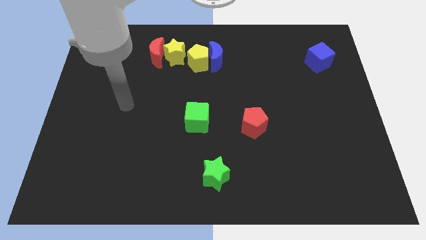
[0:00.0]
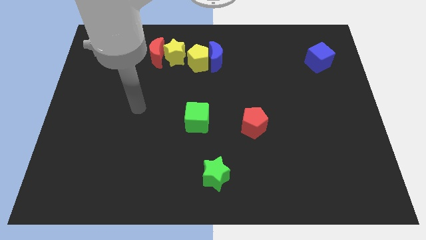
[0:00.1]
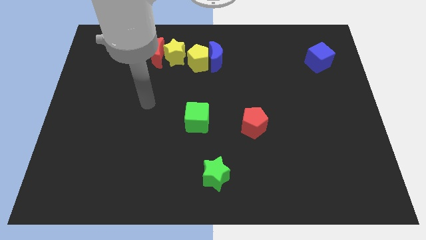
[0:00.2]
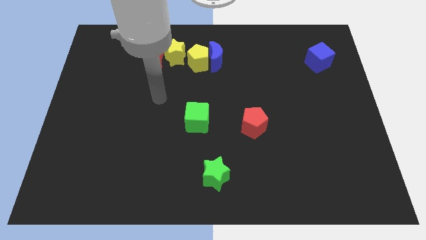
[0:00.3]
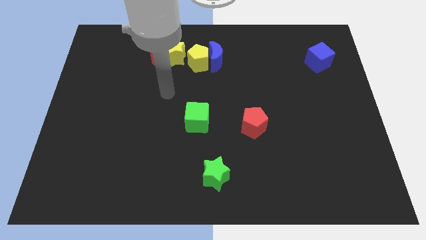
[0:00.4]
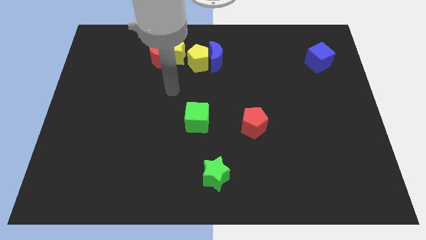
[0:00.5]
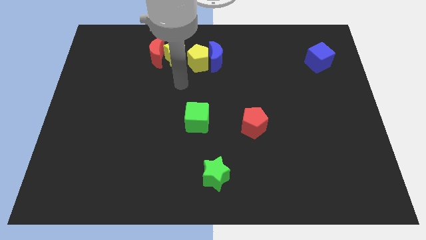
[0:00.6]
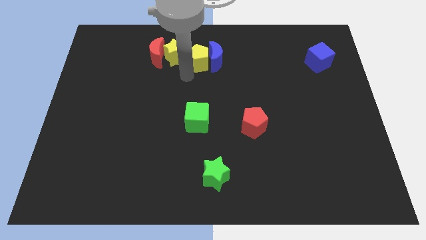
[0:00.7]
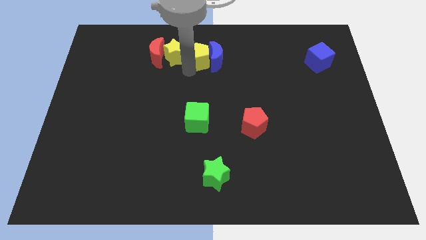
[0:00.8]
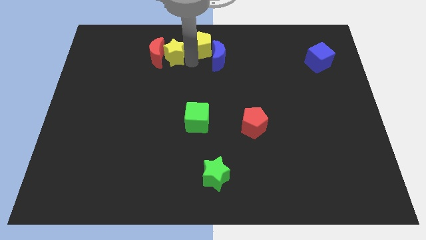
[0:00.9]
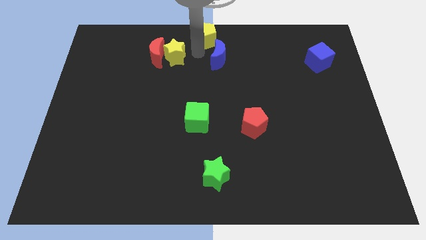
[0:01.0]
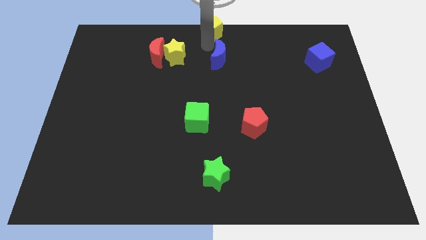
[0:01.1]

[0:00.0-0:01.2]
pull the blue moon apart from the yellow pentagon

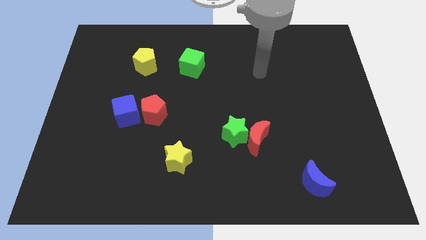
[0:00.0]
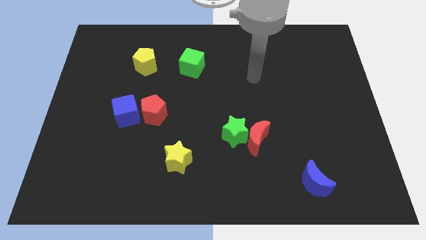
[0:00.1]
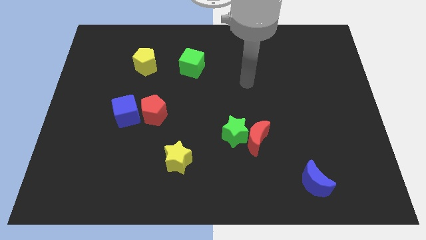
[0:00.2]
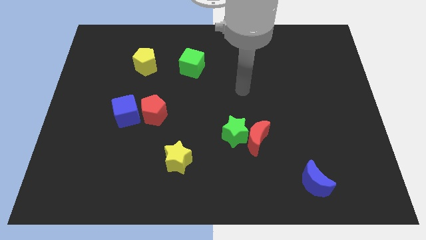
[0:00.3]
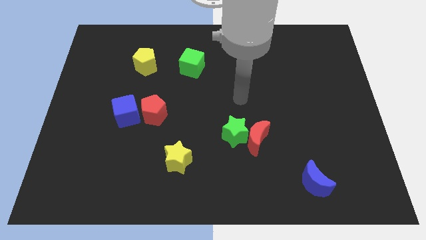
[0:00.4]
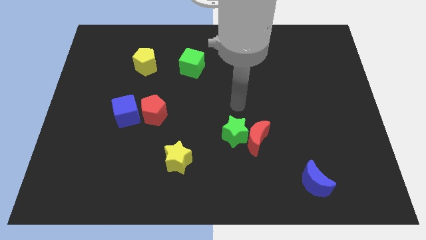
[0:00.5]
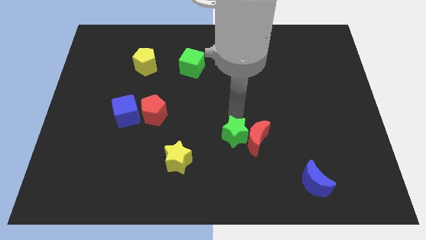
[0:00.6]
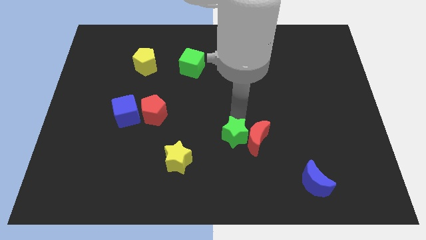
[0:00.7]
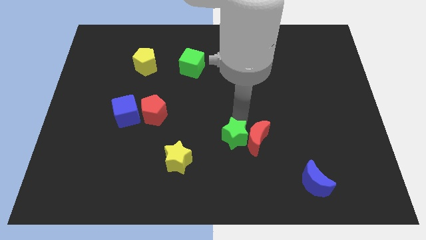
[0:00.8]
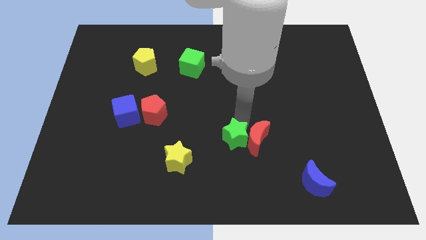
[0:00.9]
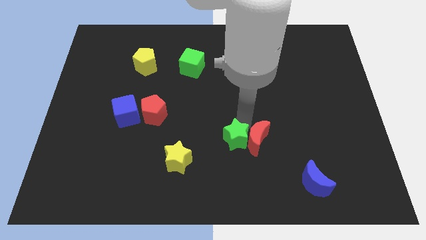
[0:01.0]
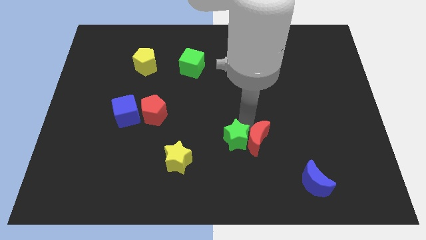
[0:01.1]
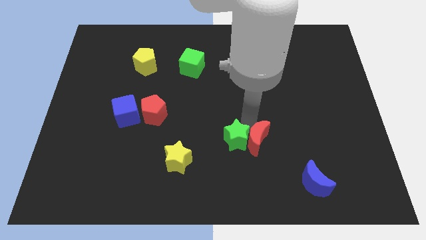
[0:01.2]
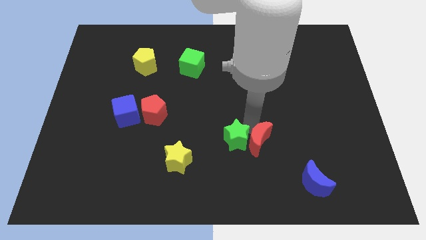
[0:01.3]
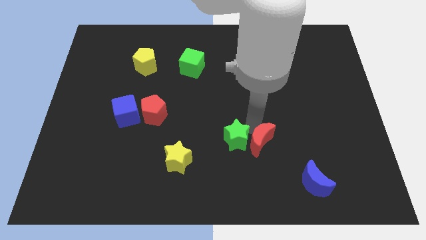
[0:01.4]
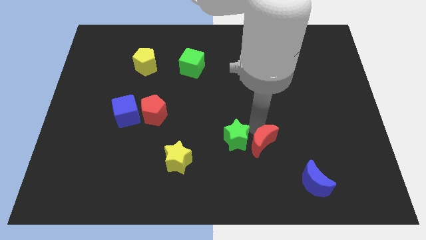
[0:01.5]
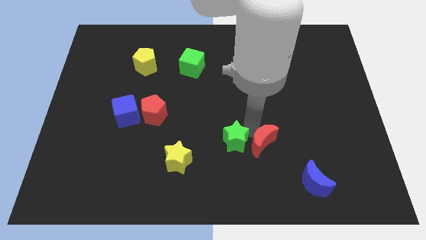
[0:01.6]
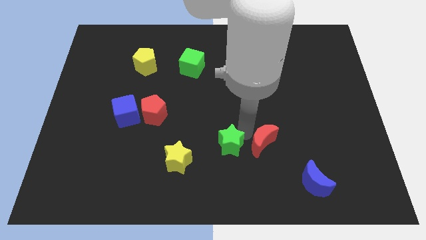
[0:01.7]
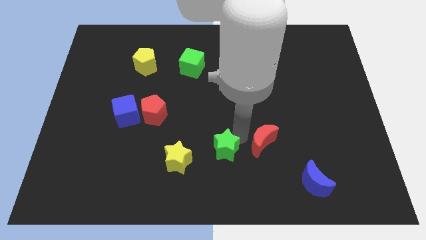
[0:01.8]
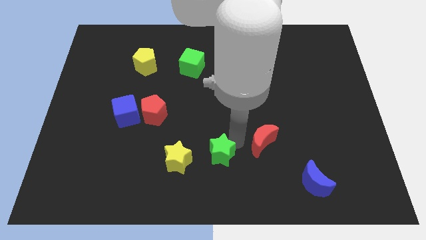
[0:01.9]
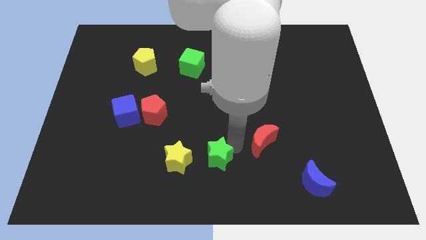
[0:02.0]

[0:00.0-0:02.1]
move the red moon away from the green star

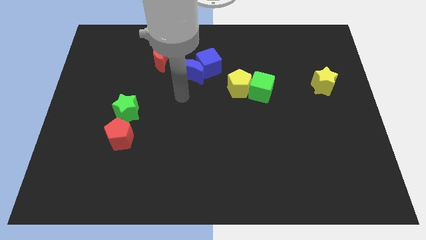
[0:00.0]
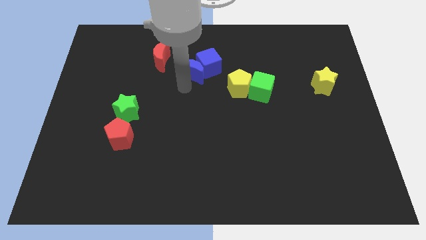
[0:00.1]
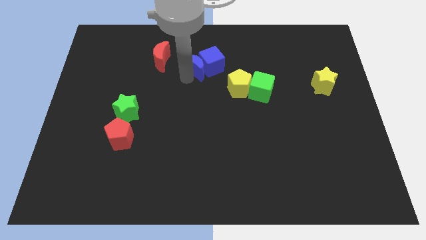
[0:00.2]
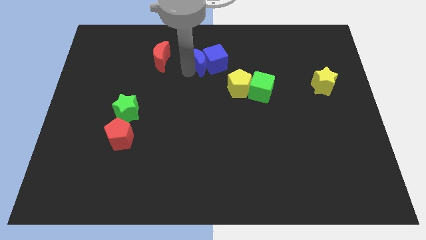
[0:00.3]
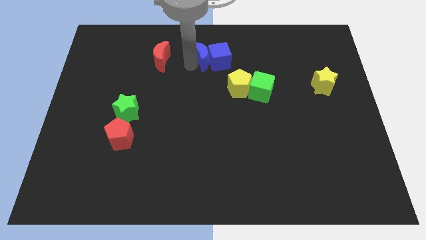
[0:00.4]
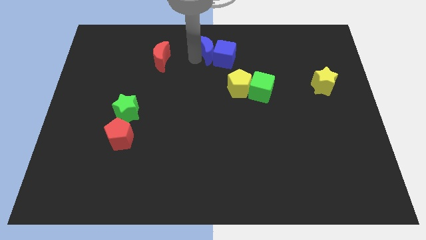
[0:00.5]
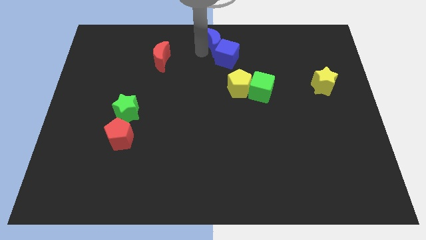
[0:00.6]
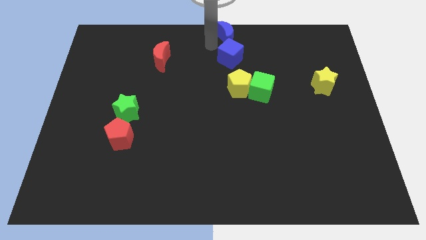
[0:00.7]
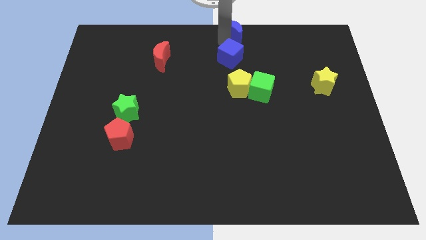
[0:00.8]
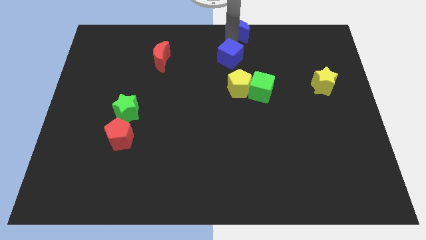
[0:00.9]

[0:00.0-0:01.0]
pull the blue cube apart from the blue moon

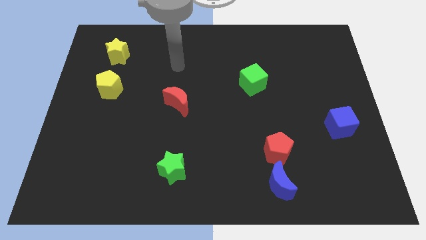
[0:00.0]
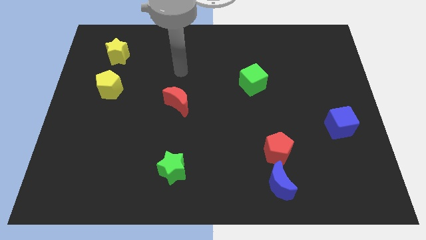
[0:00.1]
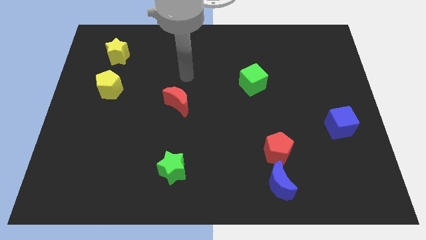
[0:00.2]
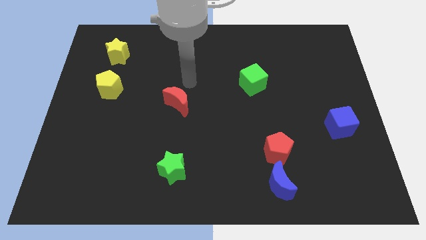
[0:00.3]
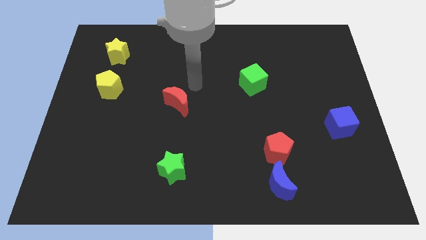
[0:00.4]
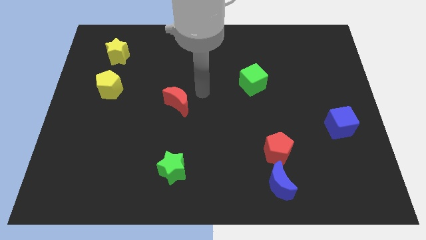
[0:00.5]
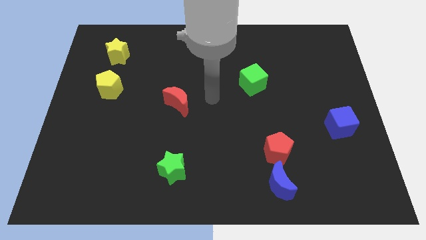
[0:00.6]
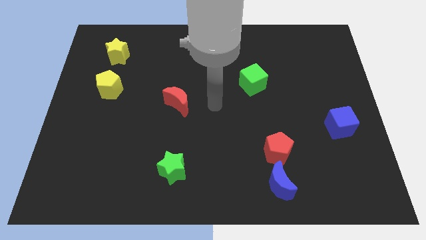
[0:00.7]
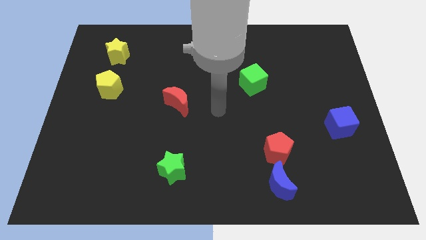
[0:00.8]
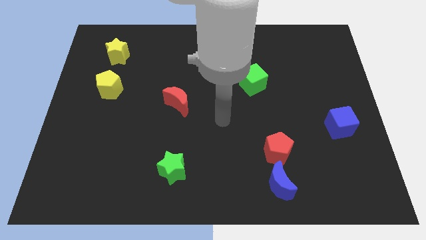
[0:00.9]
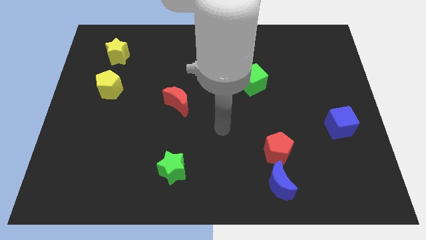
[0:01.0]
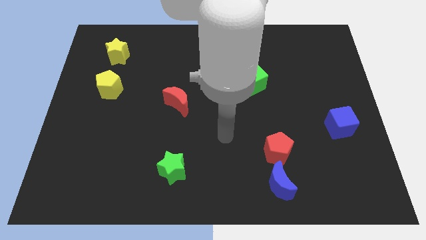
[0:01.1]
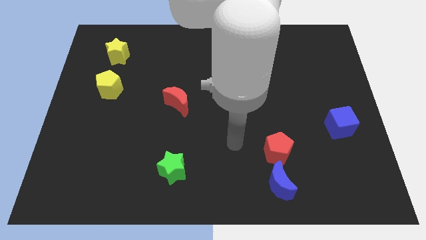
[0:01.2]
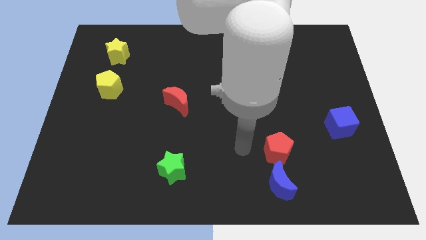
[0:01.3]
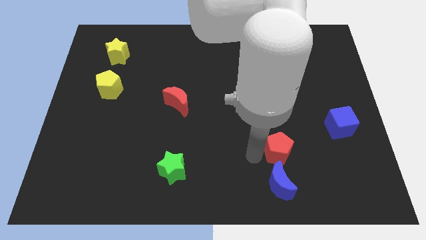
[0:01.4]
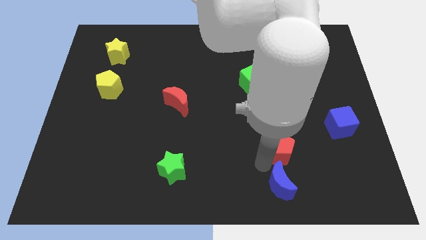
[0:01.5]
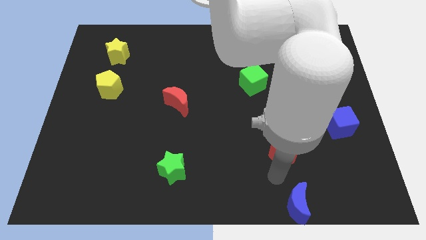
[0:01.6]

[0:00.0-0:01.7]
pull the red pentagon apart from the blue moon

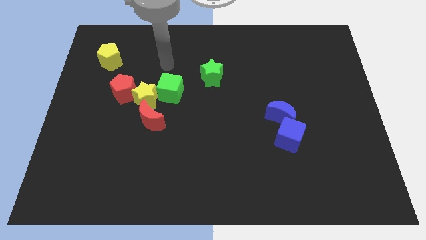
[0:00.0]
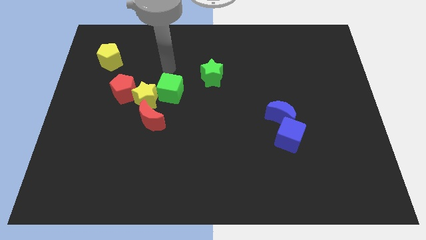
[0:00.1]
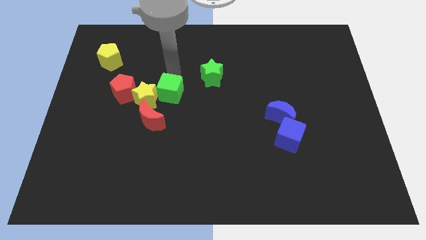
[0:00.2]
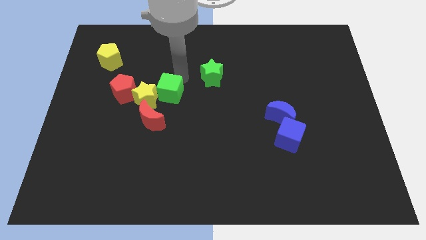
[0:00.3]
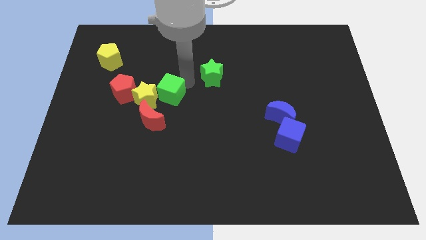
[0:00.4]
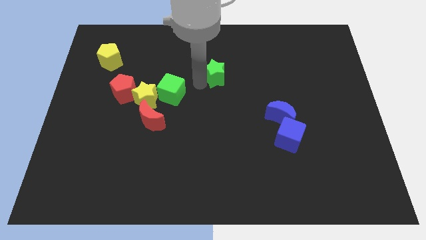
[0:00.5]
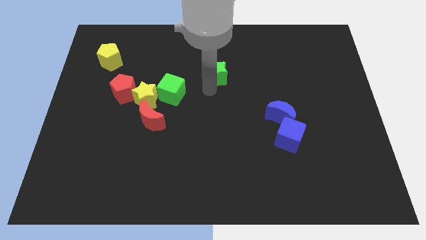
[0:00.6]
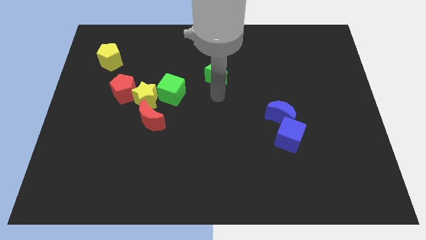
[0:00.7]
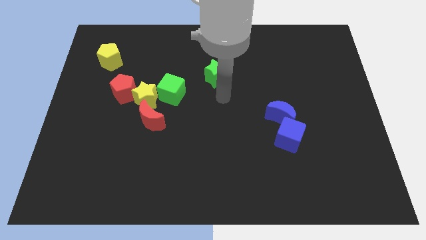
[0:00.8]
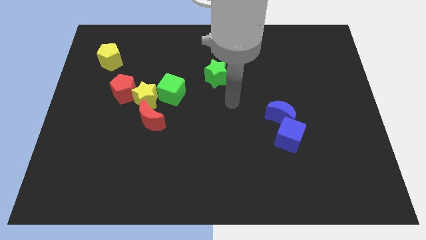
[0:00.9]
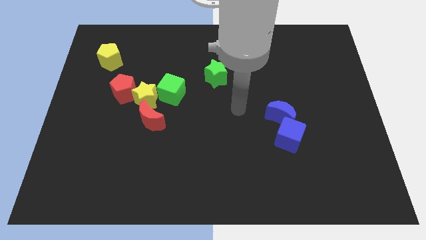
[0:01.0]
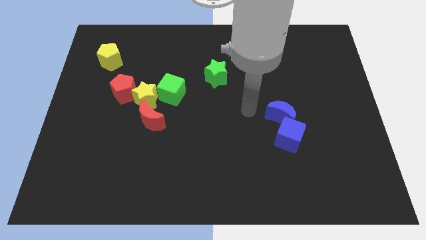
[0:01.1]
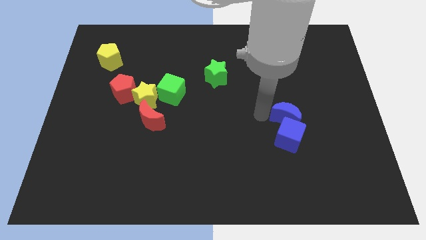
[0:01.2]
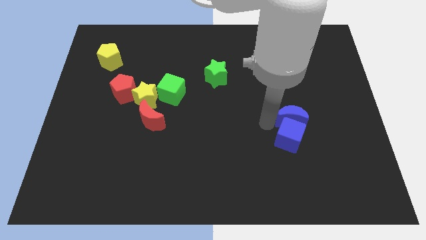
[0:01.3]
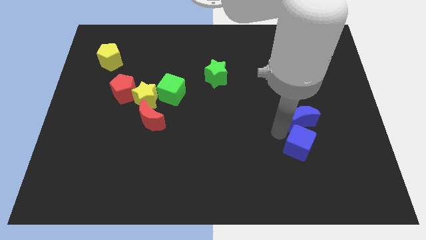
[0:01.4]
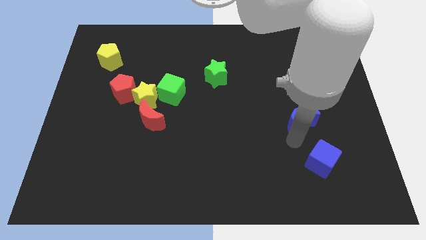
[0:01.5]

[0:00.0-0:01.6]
pull the blue moon apart from the blue cube

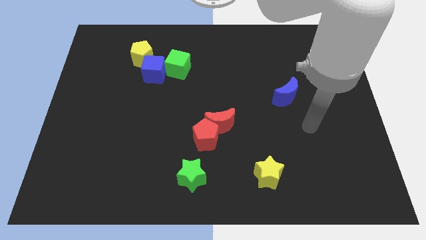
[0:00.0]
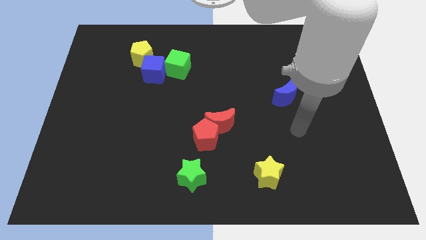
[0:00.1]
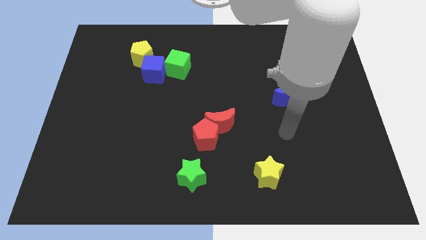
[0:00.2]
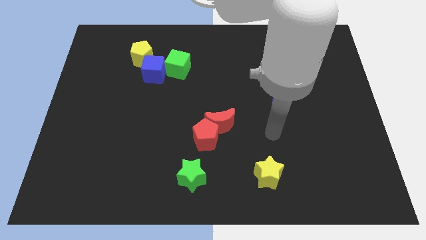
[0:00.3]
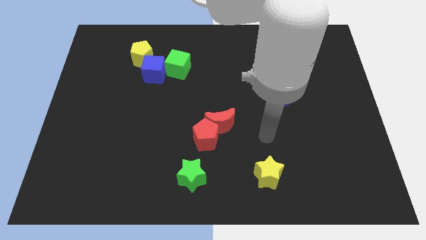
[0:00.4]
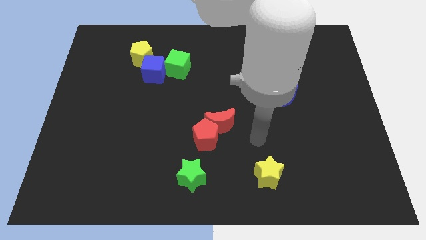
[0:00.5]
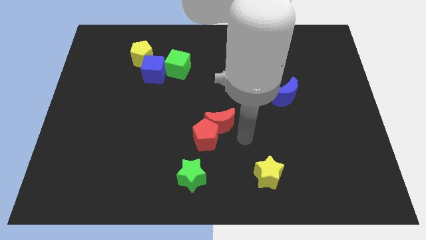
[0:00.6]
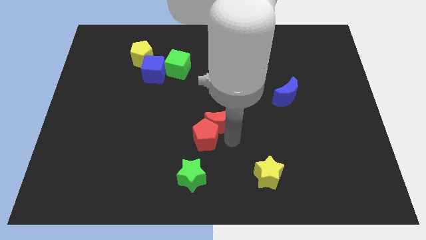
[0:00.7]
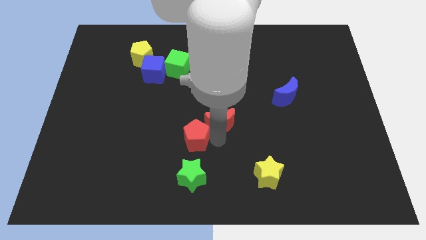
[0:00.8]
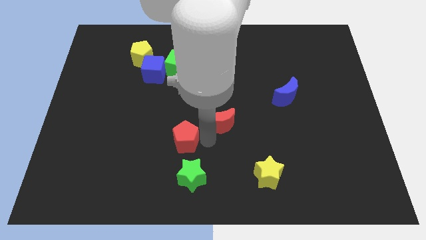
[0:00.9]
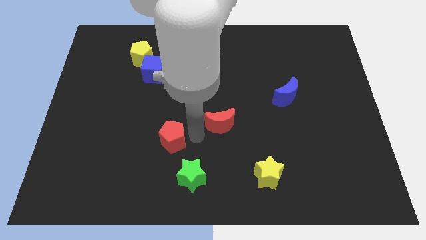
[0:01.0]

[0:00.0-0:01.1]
move the red moon away from the red pentagon

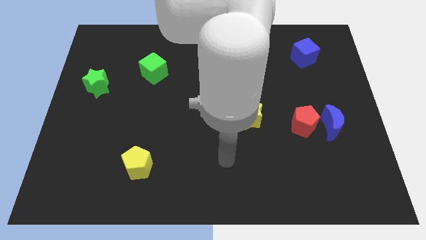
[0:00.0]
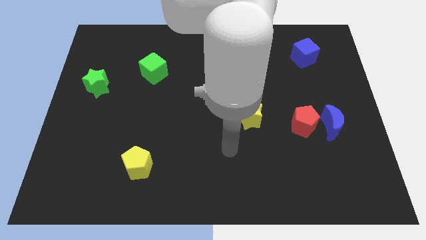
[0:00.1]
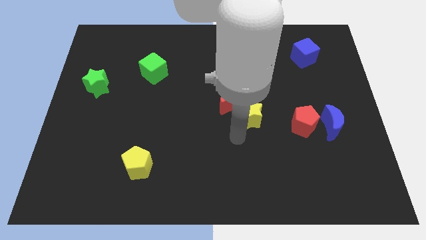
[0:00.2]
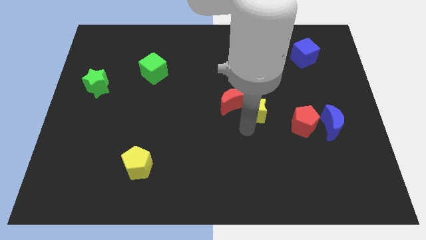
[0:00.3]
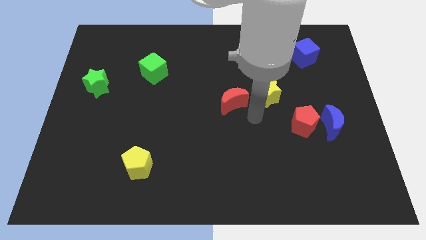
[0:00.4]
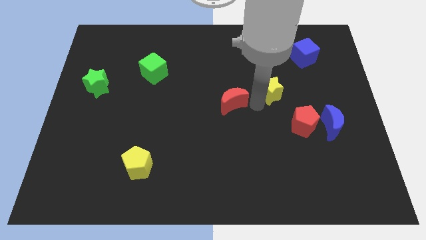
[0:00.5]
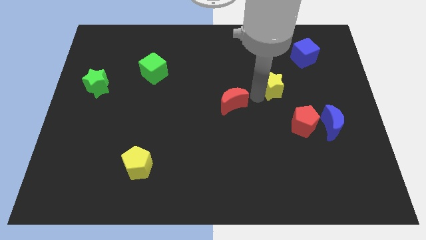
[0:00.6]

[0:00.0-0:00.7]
separate the red moon from the yellow star

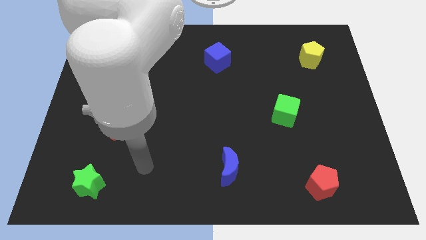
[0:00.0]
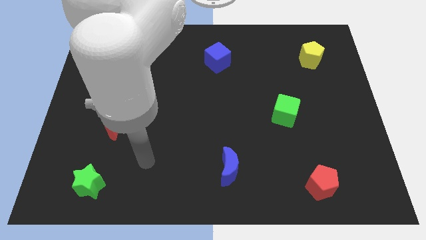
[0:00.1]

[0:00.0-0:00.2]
move the red moon away from the yellow star
